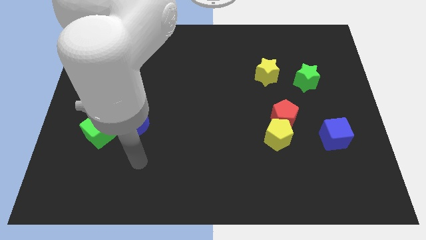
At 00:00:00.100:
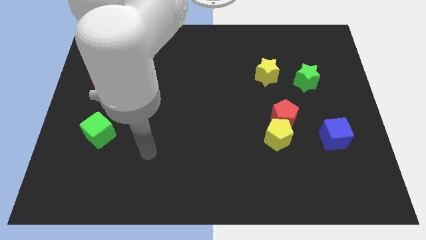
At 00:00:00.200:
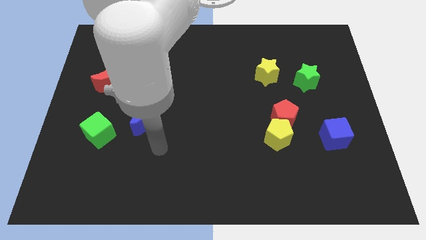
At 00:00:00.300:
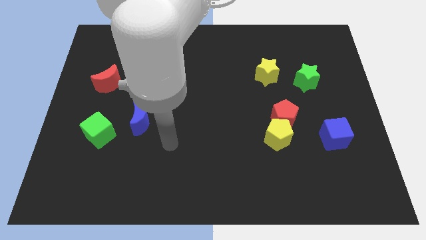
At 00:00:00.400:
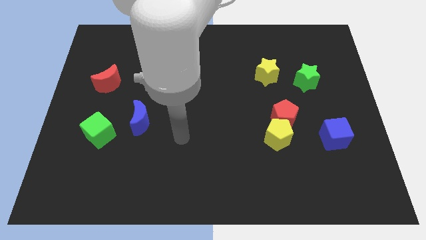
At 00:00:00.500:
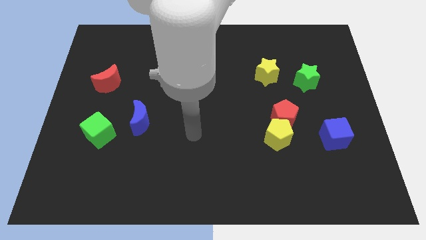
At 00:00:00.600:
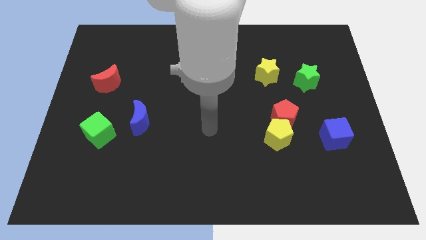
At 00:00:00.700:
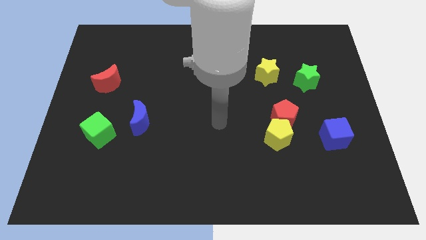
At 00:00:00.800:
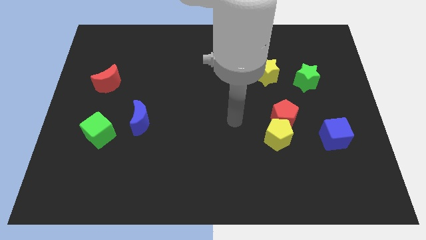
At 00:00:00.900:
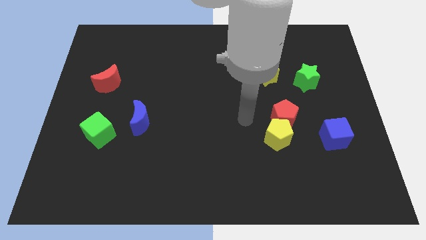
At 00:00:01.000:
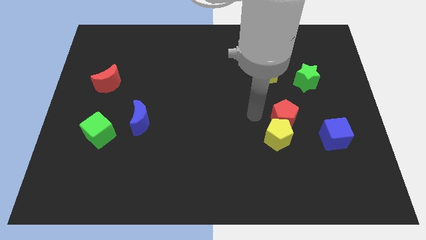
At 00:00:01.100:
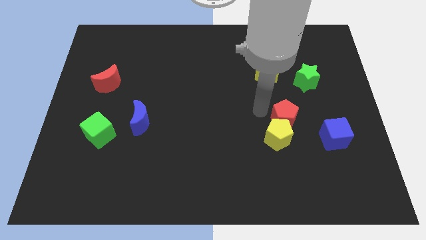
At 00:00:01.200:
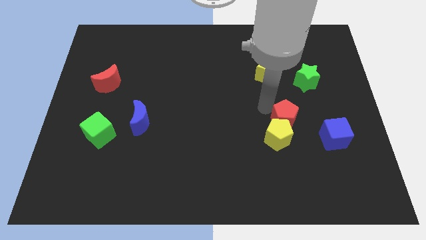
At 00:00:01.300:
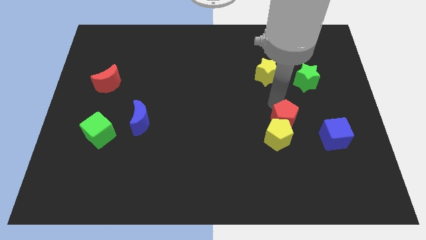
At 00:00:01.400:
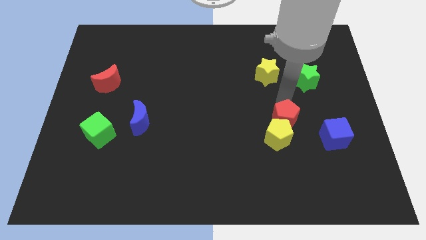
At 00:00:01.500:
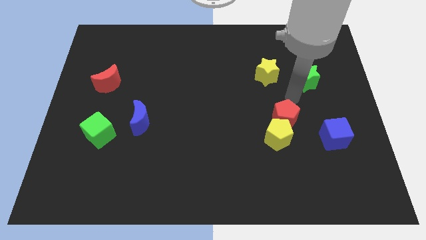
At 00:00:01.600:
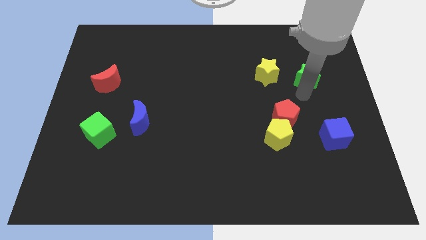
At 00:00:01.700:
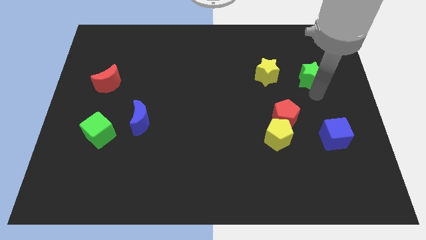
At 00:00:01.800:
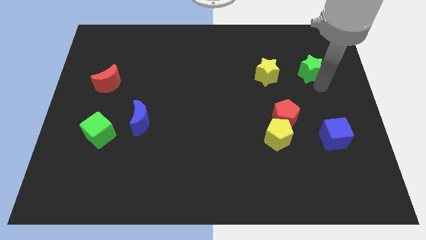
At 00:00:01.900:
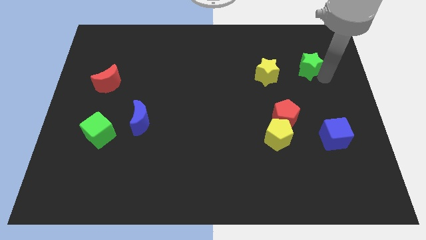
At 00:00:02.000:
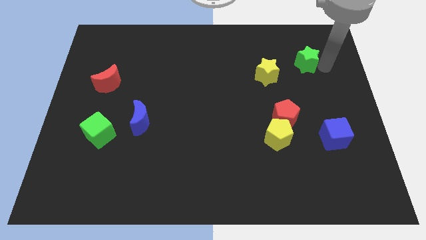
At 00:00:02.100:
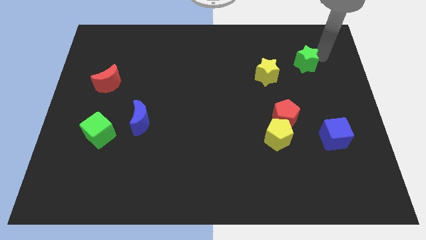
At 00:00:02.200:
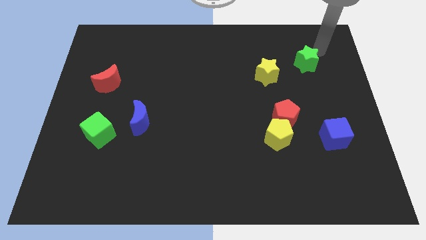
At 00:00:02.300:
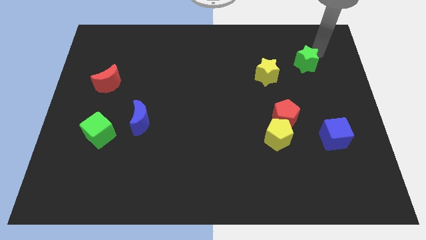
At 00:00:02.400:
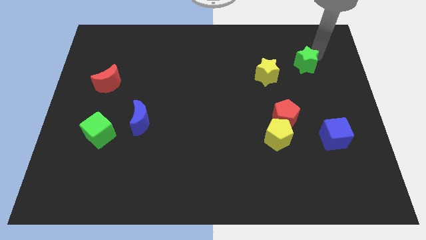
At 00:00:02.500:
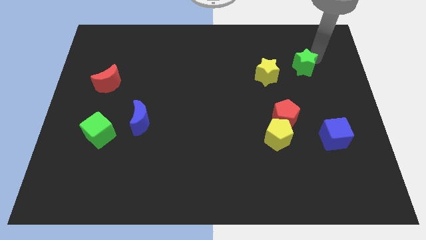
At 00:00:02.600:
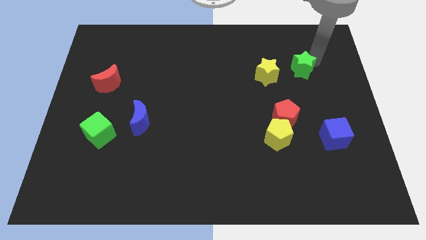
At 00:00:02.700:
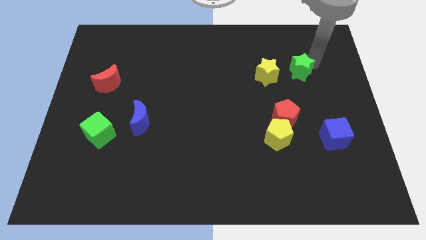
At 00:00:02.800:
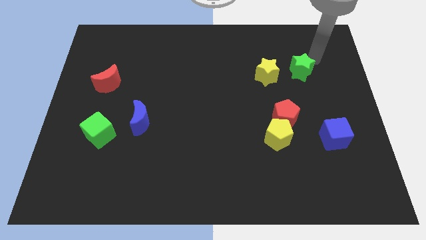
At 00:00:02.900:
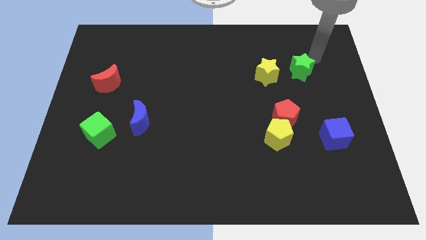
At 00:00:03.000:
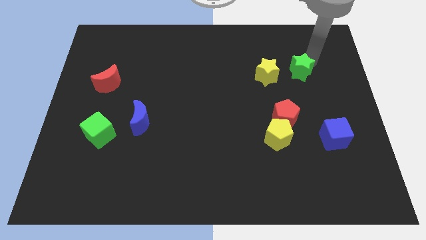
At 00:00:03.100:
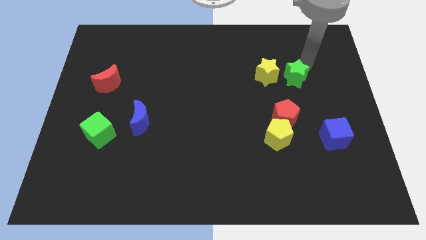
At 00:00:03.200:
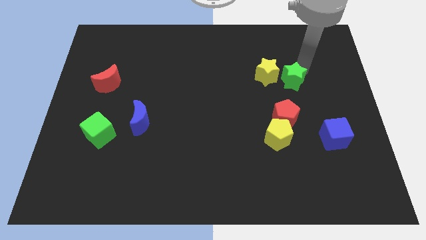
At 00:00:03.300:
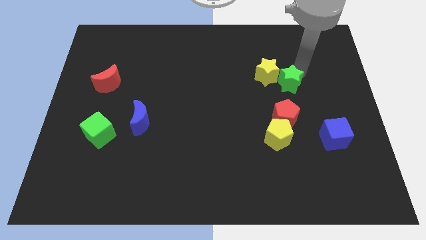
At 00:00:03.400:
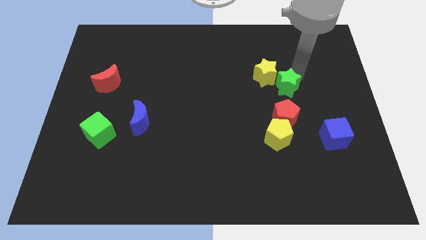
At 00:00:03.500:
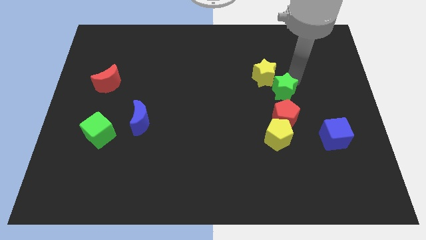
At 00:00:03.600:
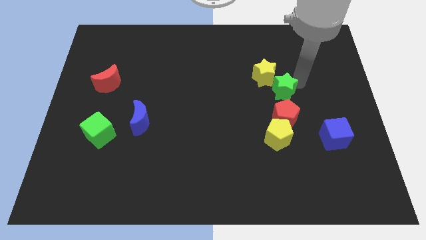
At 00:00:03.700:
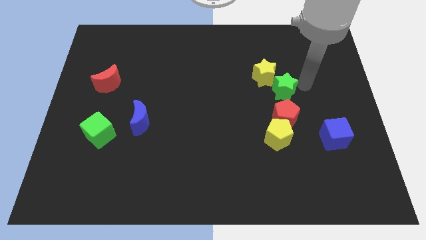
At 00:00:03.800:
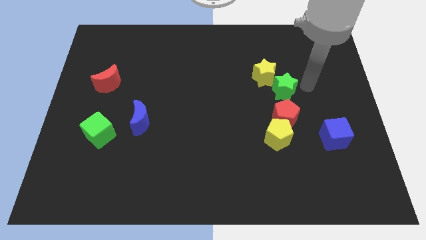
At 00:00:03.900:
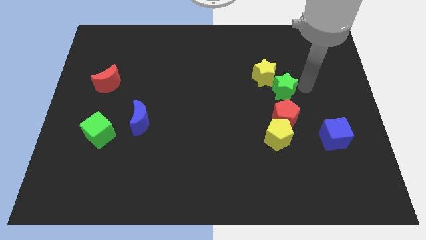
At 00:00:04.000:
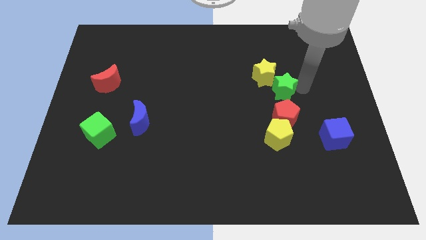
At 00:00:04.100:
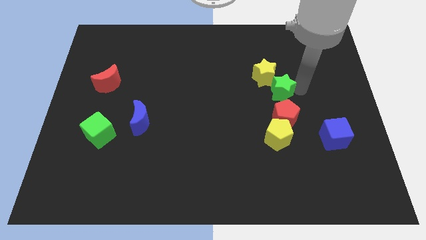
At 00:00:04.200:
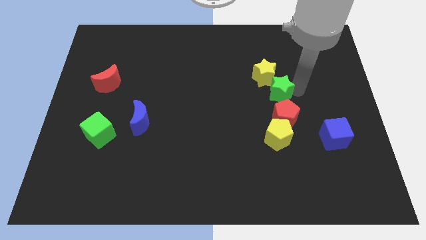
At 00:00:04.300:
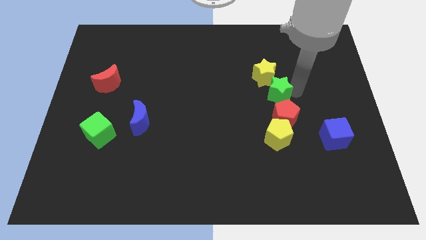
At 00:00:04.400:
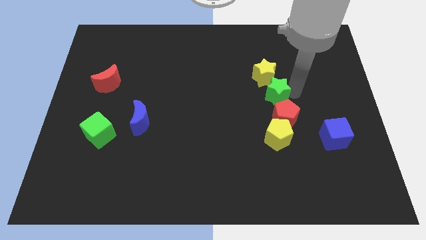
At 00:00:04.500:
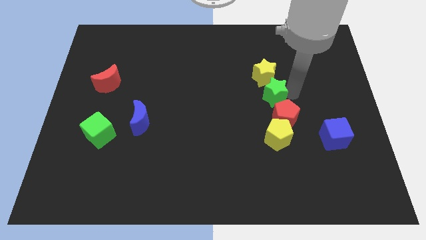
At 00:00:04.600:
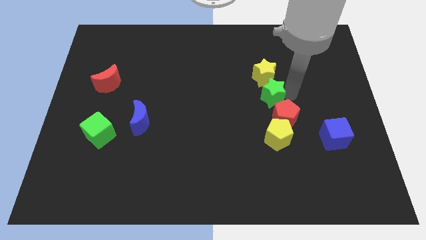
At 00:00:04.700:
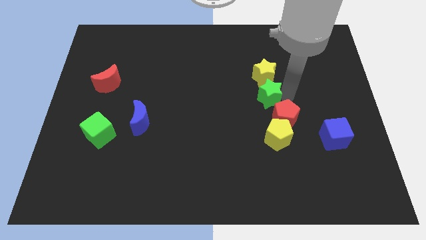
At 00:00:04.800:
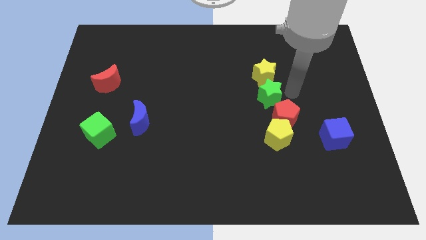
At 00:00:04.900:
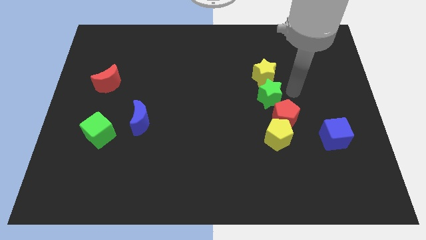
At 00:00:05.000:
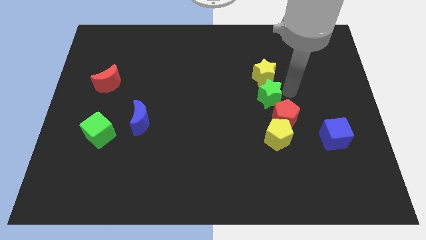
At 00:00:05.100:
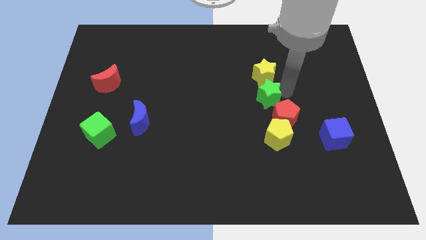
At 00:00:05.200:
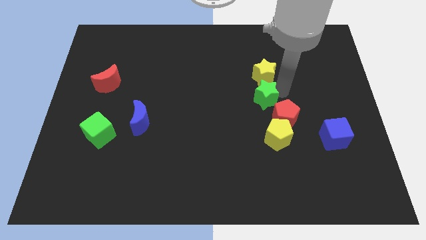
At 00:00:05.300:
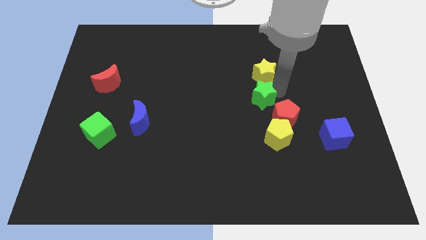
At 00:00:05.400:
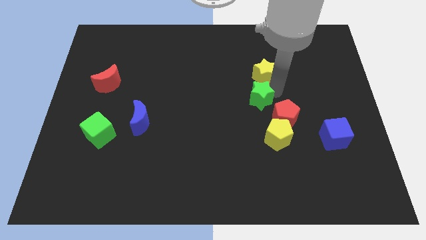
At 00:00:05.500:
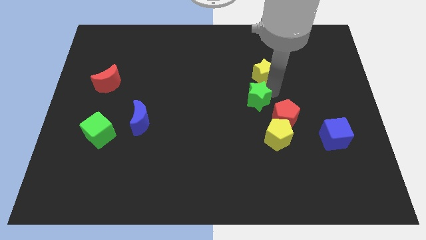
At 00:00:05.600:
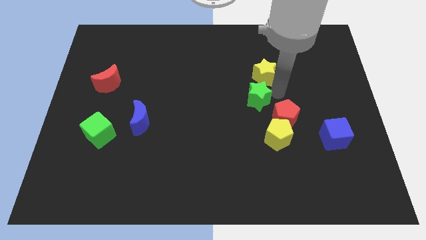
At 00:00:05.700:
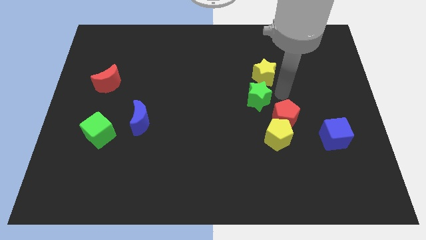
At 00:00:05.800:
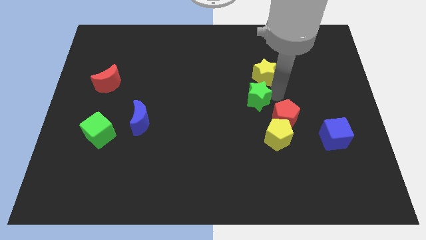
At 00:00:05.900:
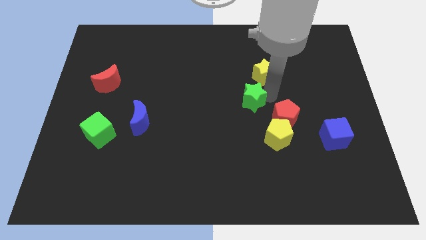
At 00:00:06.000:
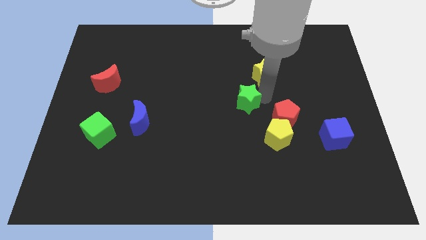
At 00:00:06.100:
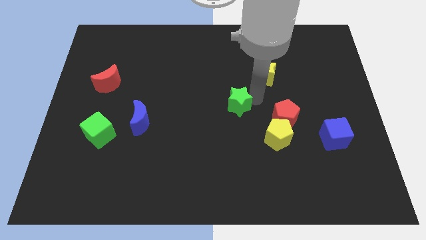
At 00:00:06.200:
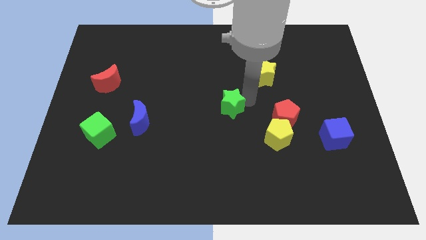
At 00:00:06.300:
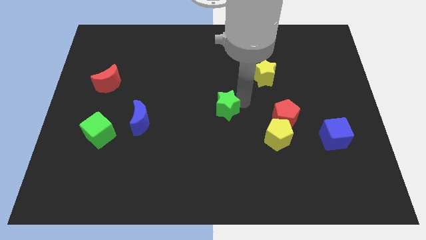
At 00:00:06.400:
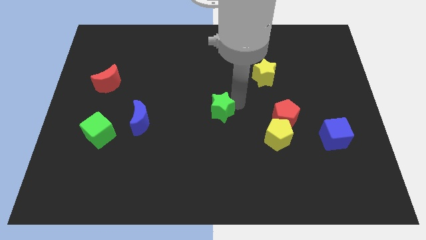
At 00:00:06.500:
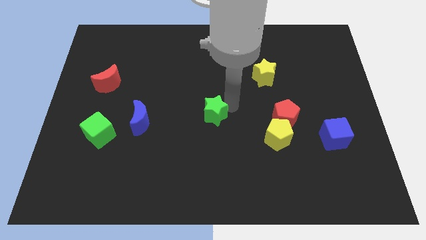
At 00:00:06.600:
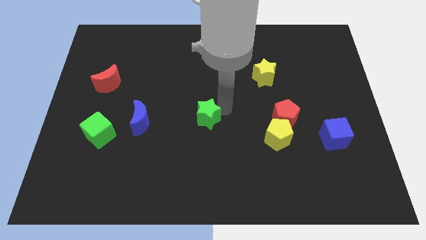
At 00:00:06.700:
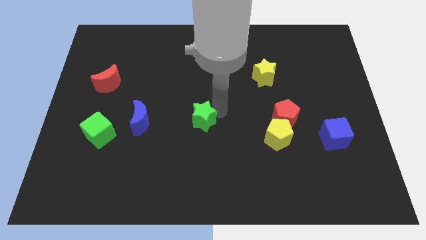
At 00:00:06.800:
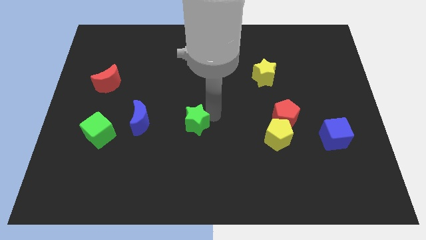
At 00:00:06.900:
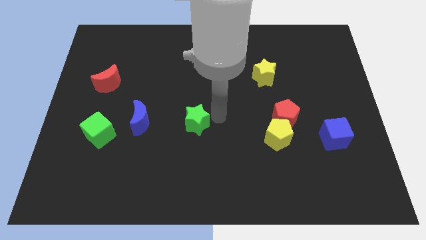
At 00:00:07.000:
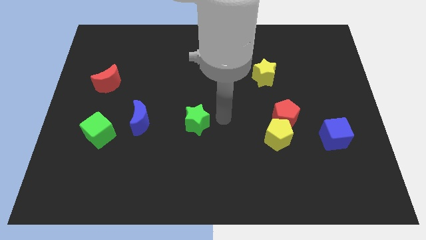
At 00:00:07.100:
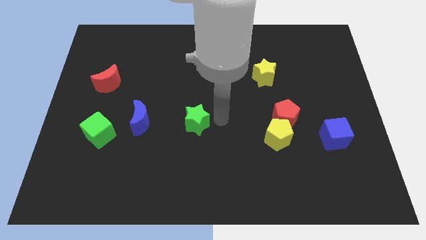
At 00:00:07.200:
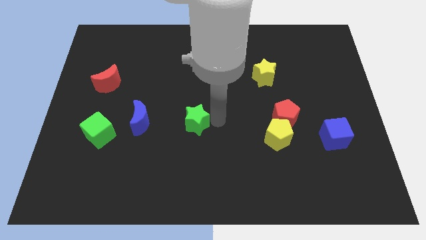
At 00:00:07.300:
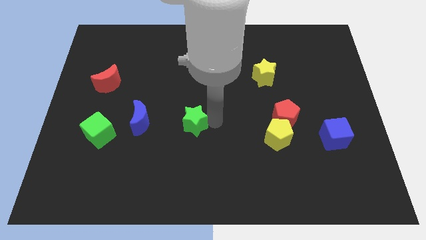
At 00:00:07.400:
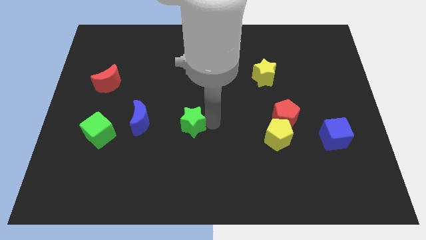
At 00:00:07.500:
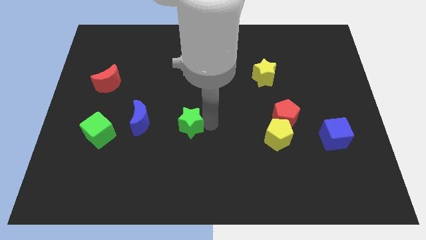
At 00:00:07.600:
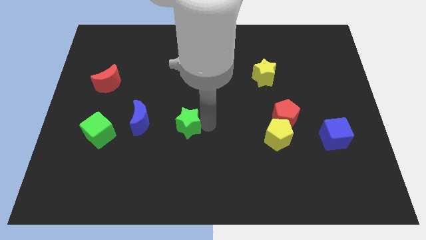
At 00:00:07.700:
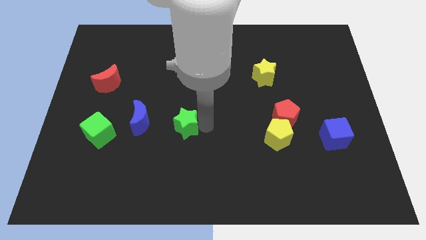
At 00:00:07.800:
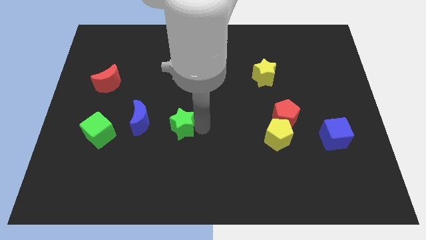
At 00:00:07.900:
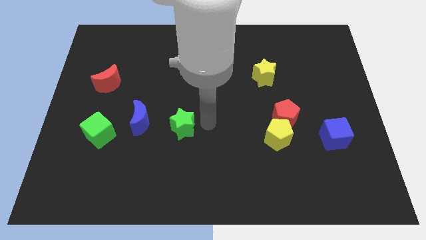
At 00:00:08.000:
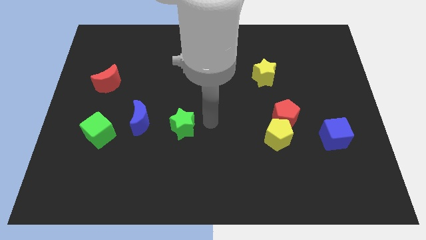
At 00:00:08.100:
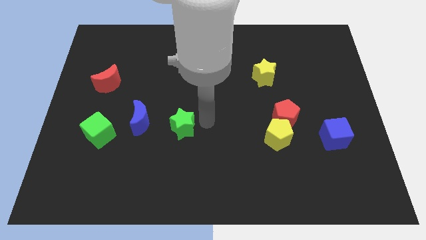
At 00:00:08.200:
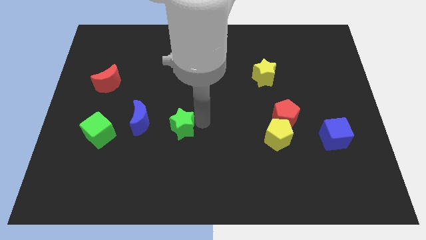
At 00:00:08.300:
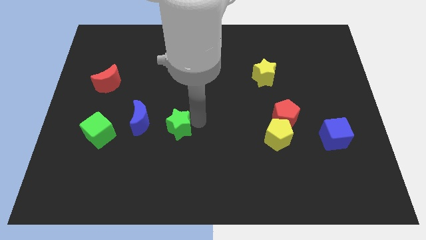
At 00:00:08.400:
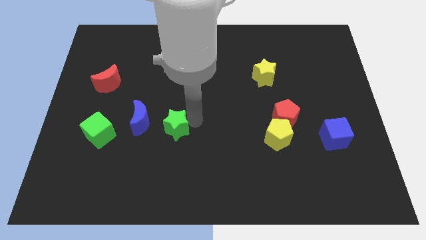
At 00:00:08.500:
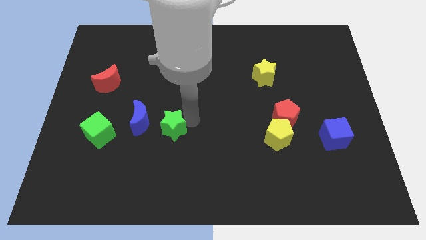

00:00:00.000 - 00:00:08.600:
slide the green star to the right of the green cube
